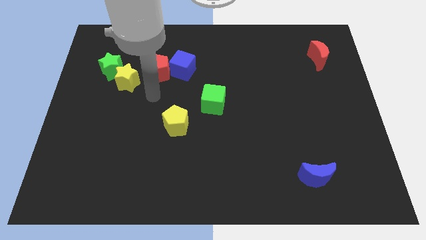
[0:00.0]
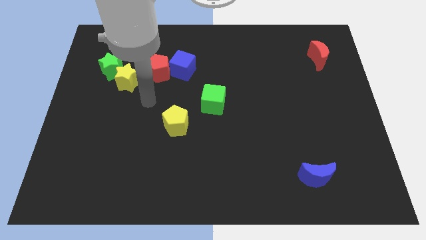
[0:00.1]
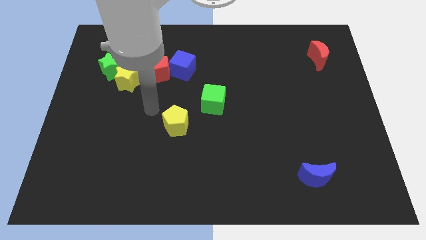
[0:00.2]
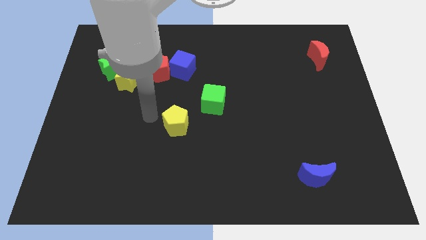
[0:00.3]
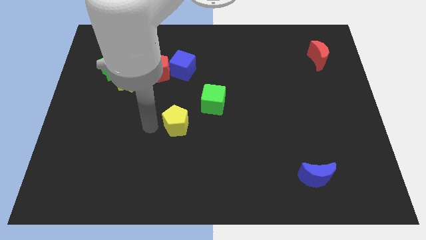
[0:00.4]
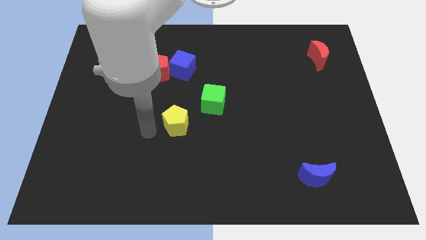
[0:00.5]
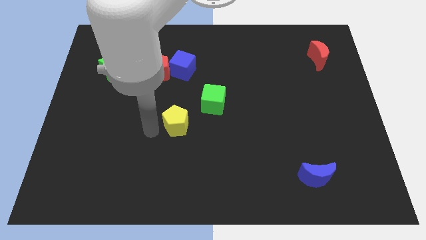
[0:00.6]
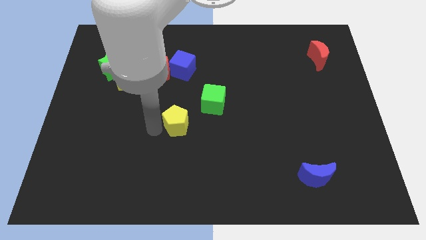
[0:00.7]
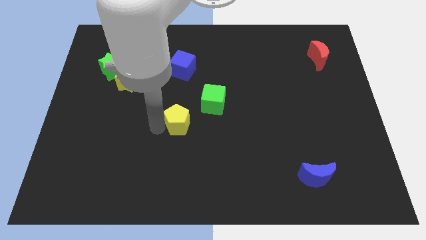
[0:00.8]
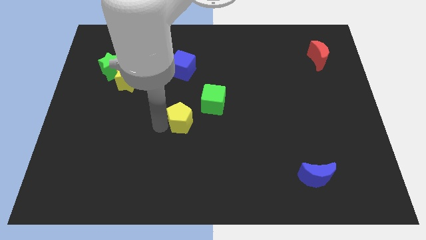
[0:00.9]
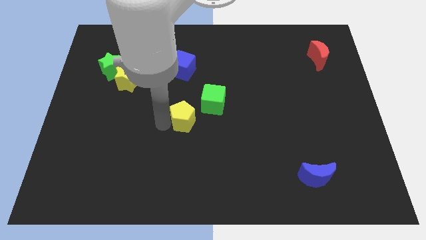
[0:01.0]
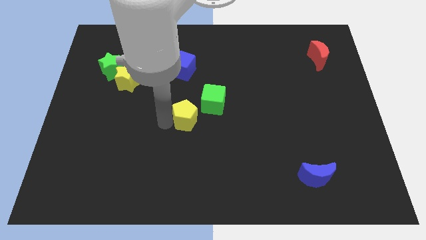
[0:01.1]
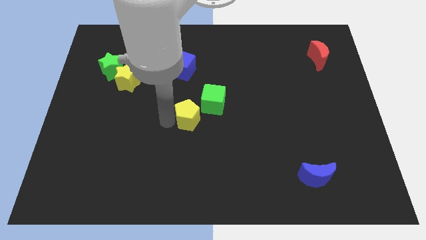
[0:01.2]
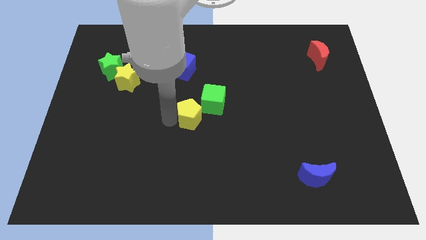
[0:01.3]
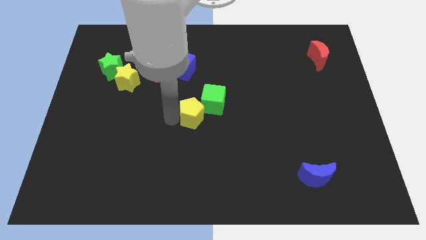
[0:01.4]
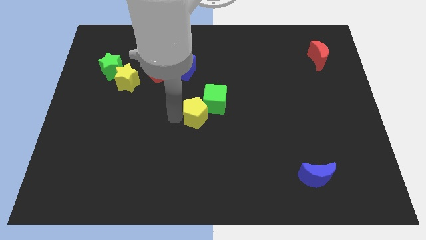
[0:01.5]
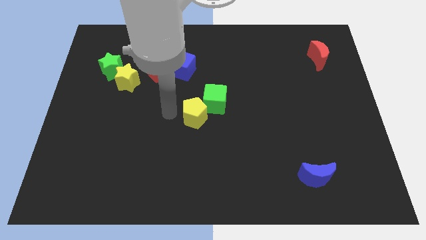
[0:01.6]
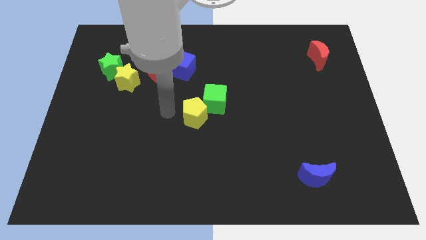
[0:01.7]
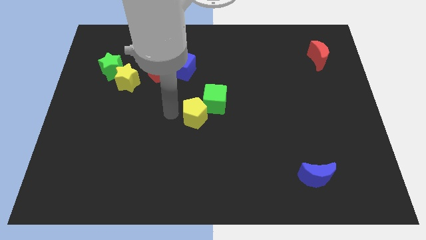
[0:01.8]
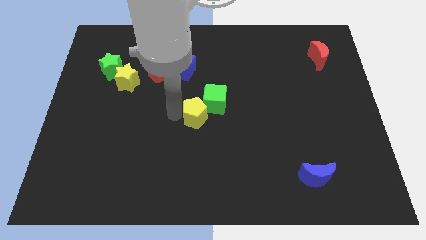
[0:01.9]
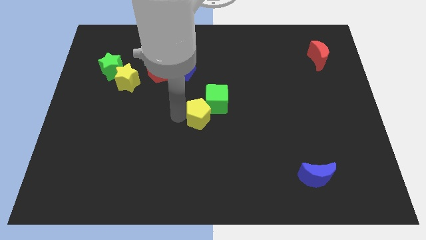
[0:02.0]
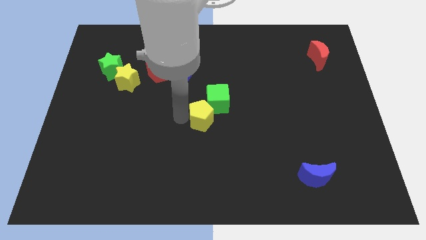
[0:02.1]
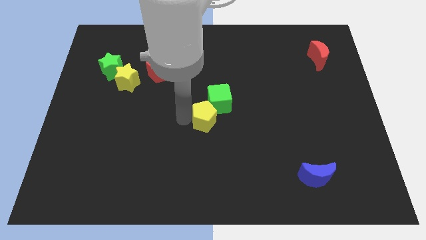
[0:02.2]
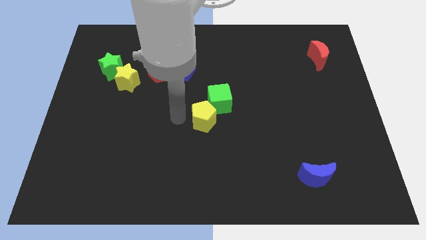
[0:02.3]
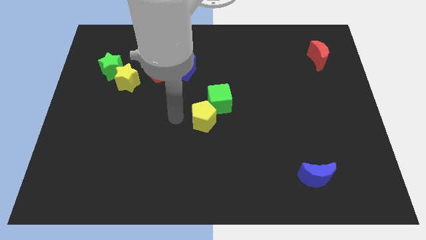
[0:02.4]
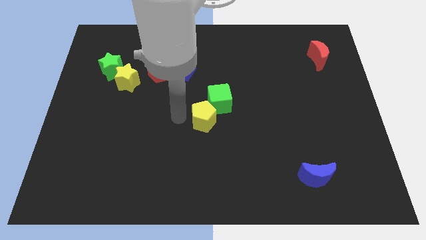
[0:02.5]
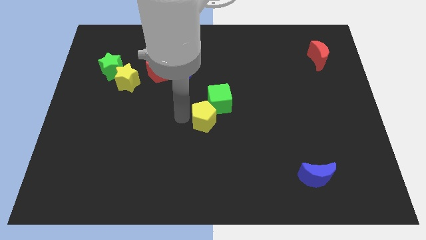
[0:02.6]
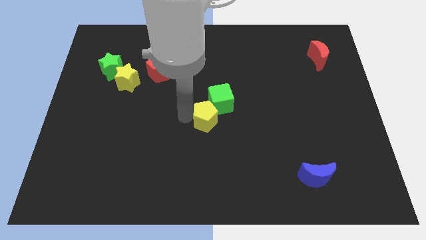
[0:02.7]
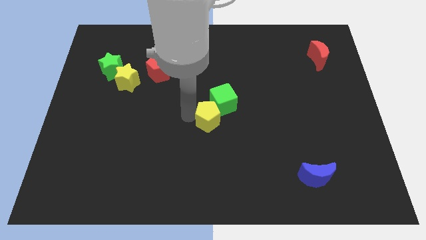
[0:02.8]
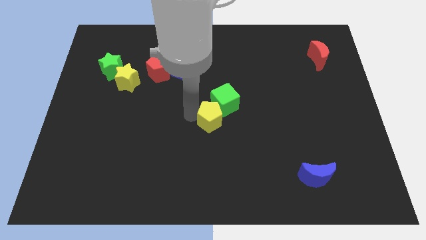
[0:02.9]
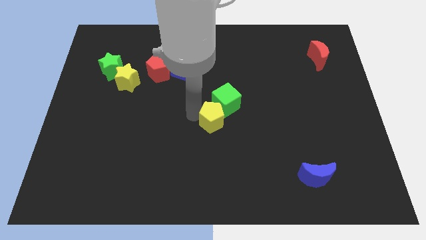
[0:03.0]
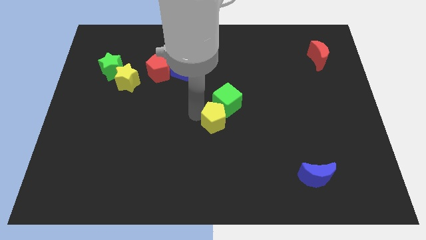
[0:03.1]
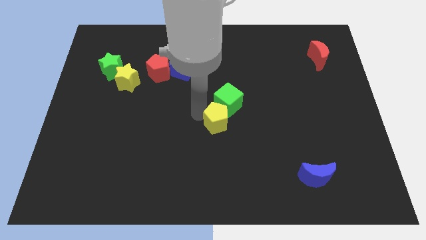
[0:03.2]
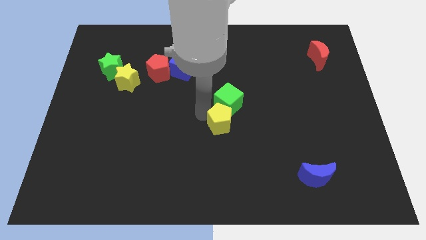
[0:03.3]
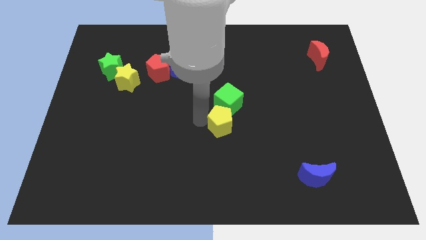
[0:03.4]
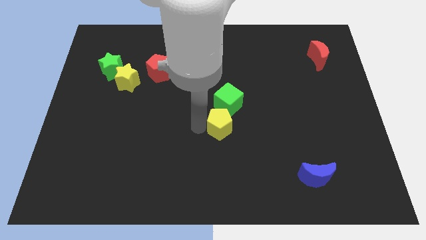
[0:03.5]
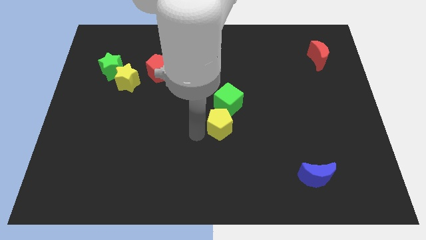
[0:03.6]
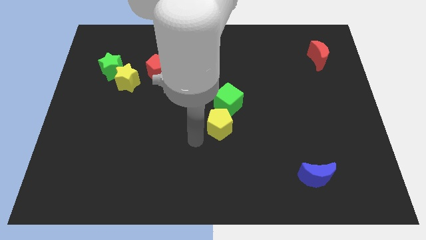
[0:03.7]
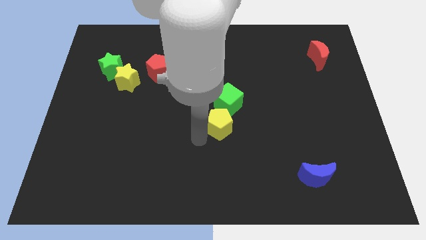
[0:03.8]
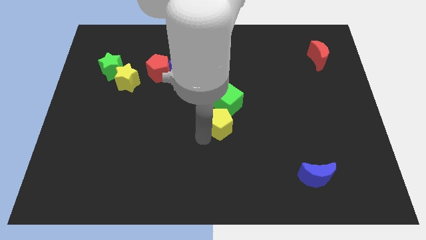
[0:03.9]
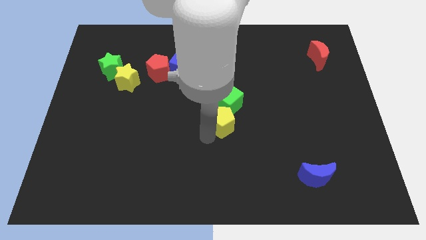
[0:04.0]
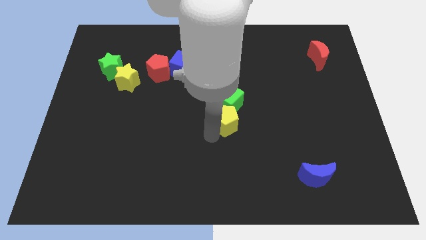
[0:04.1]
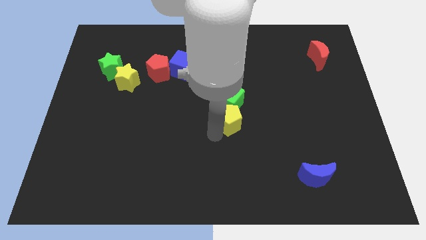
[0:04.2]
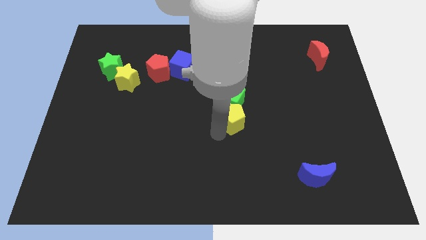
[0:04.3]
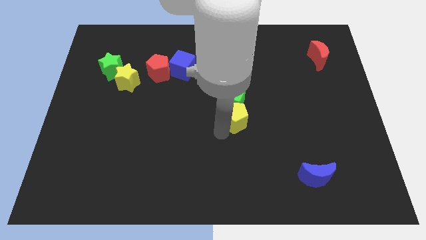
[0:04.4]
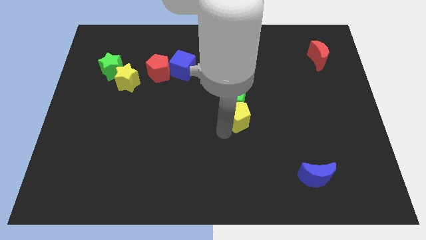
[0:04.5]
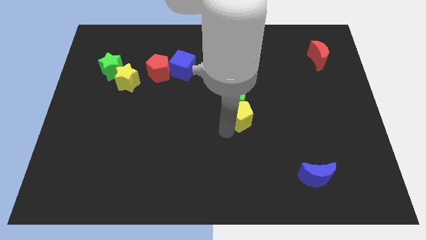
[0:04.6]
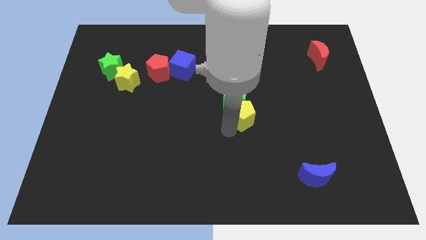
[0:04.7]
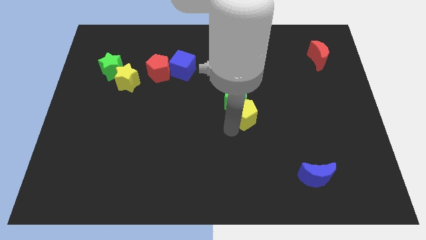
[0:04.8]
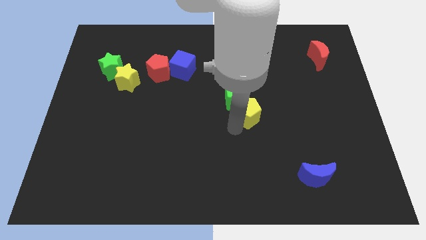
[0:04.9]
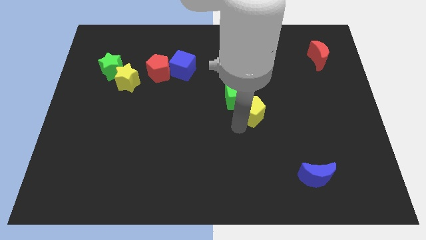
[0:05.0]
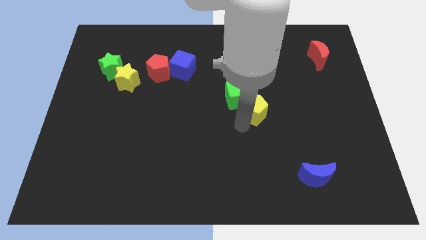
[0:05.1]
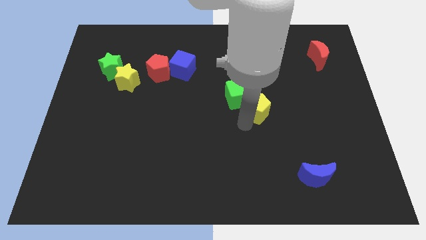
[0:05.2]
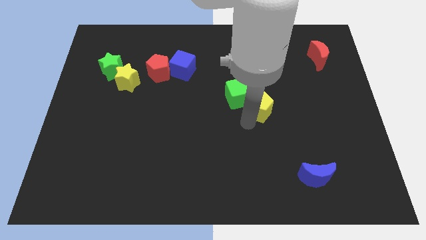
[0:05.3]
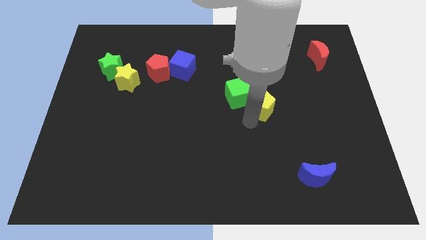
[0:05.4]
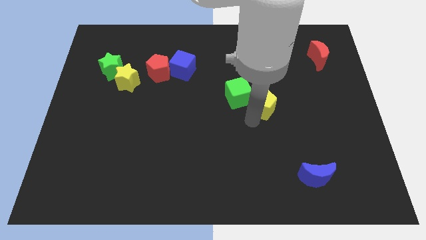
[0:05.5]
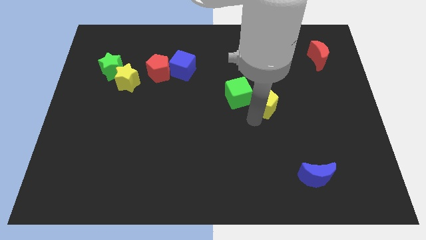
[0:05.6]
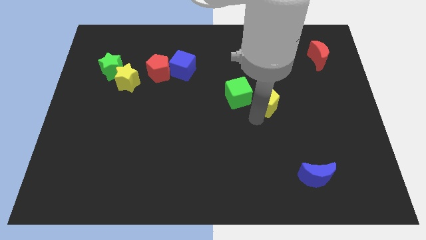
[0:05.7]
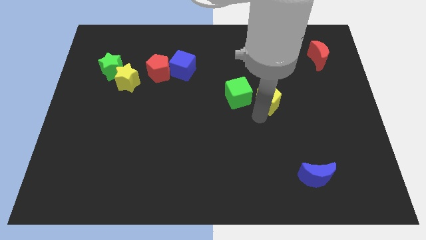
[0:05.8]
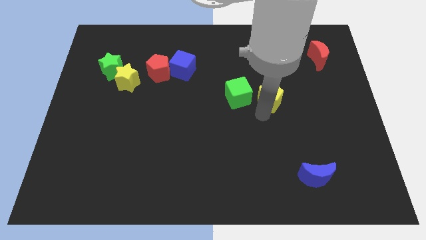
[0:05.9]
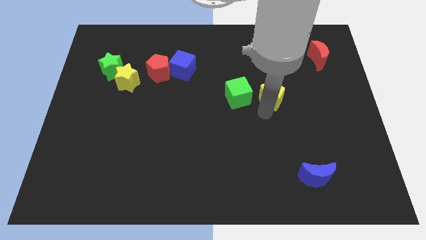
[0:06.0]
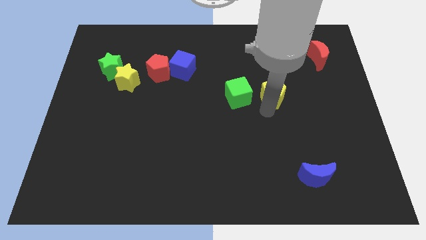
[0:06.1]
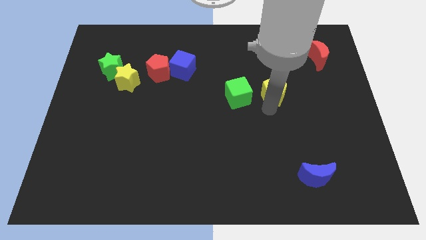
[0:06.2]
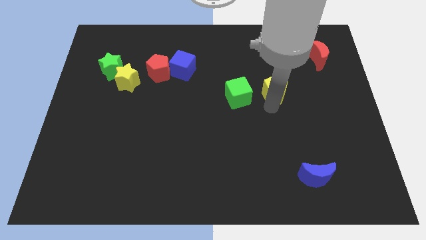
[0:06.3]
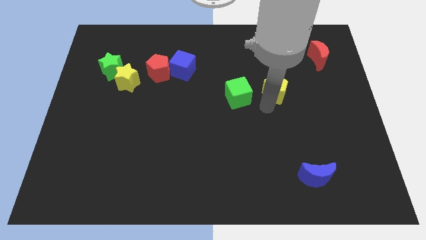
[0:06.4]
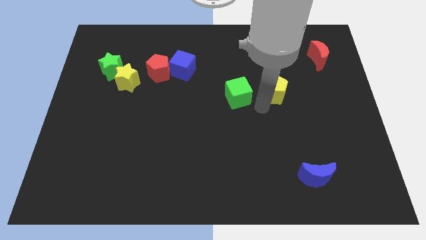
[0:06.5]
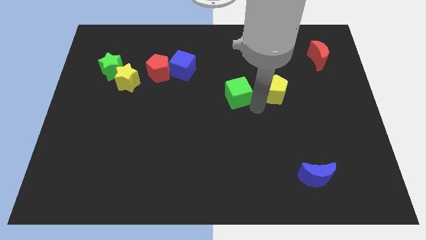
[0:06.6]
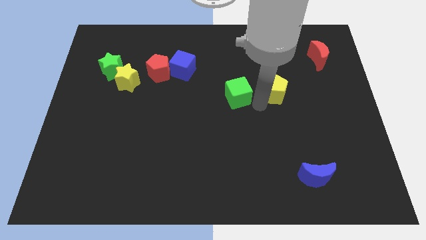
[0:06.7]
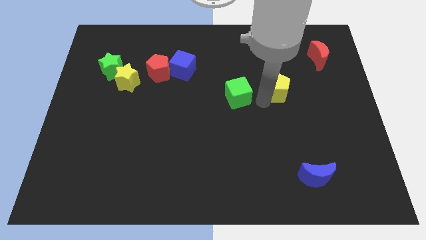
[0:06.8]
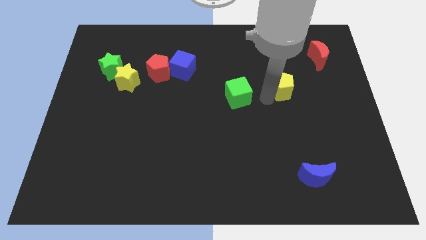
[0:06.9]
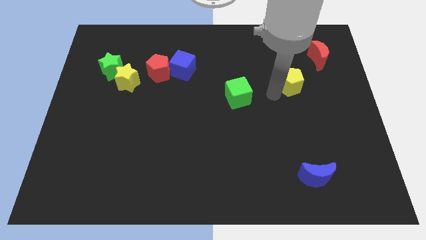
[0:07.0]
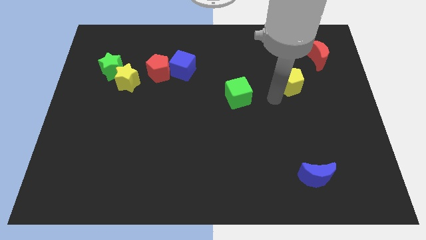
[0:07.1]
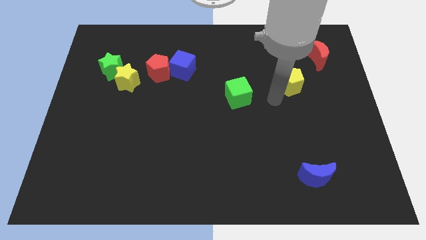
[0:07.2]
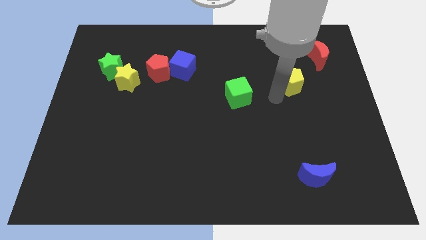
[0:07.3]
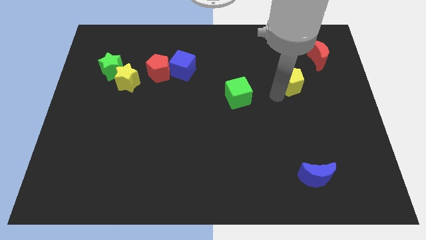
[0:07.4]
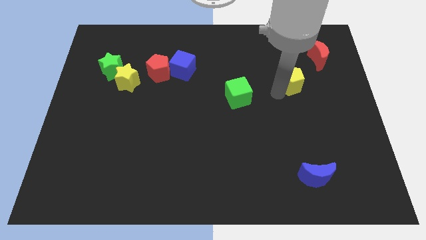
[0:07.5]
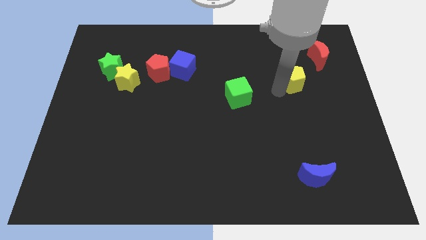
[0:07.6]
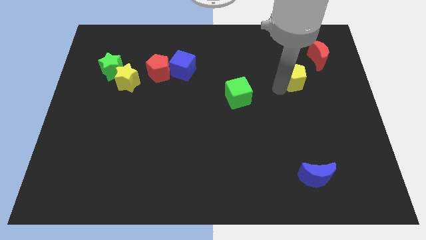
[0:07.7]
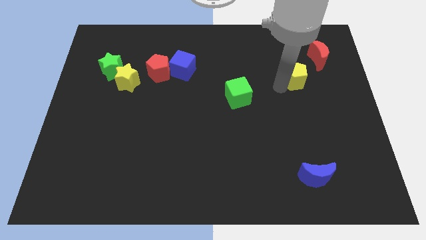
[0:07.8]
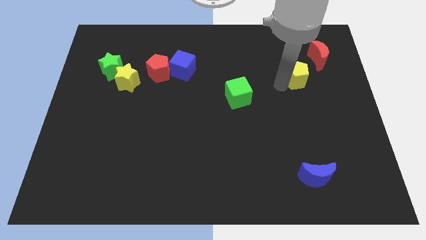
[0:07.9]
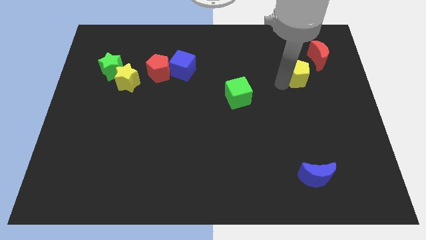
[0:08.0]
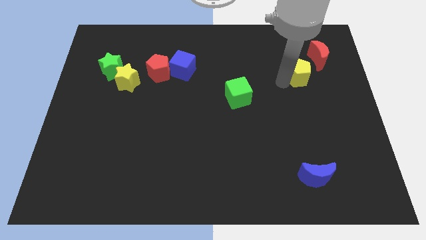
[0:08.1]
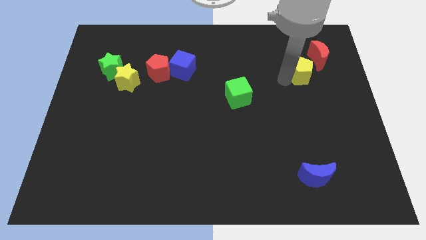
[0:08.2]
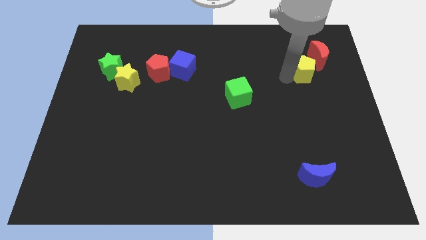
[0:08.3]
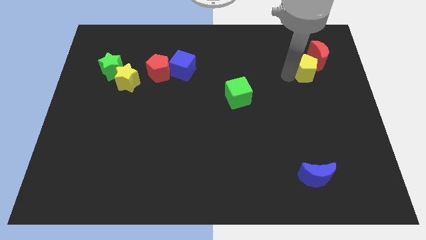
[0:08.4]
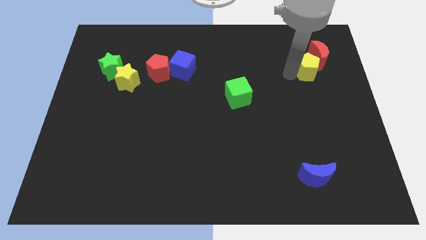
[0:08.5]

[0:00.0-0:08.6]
slide the yellow pentagon close to the red moon
